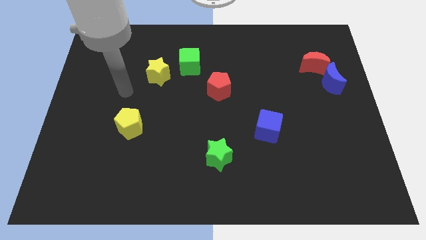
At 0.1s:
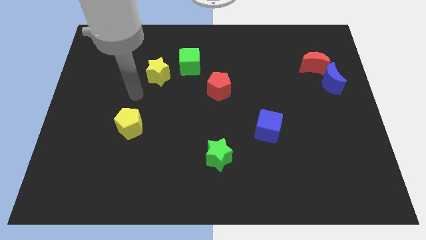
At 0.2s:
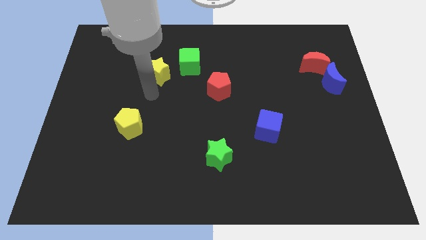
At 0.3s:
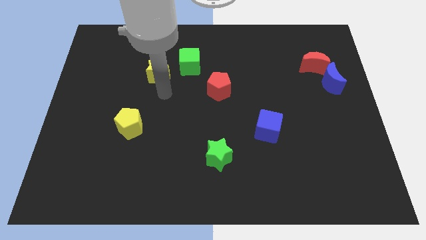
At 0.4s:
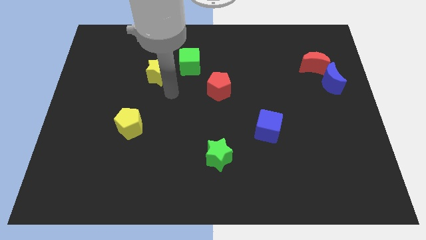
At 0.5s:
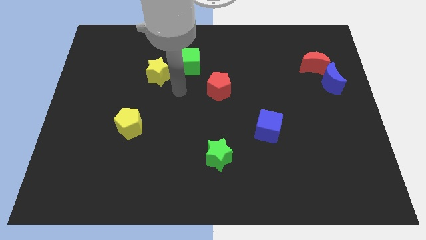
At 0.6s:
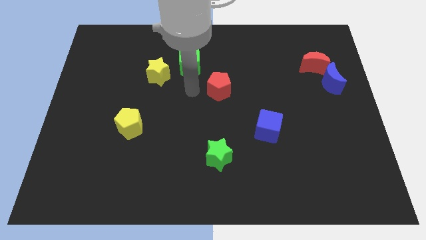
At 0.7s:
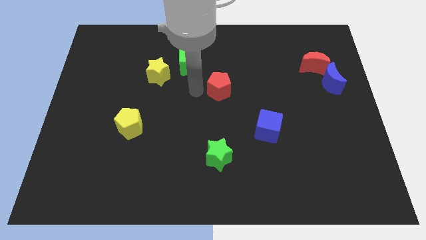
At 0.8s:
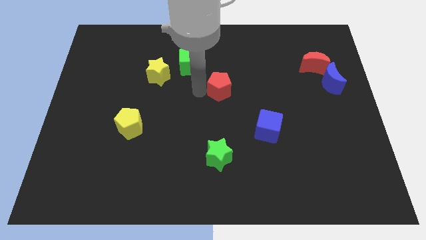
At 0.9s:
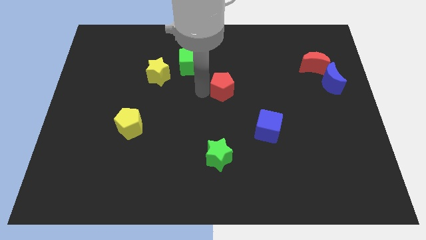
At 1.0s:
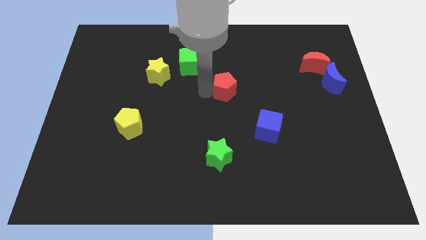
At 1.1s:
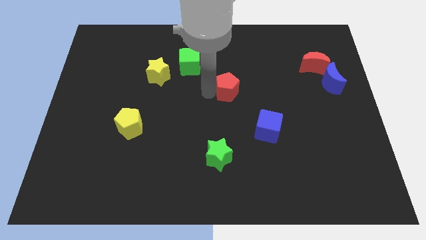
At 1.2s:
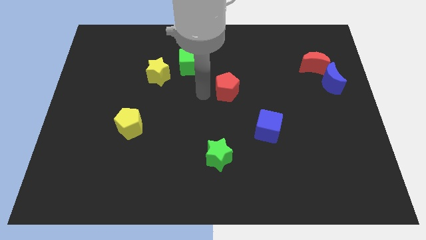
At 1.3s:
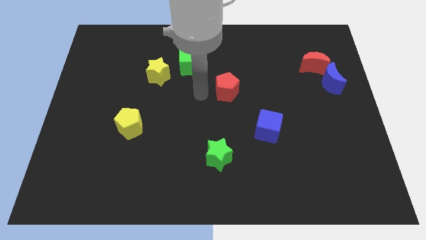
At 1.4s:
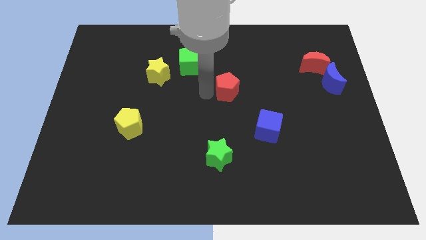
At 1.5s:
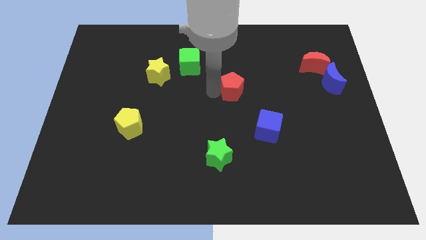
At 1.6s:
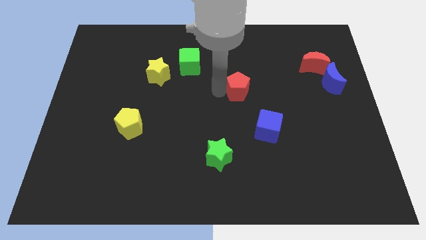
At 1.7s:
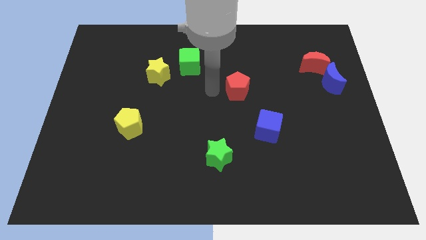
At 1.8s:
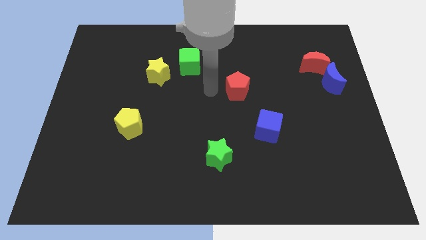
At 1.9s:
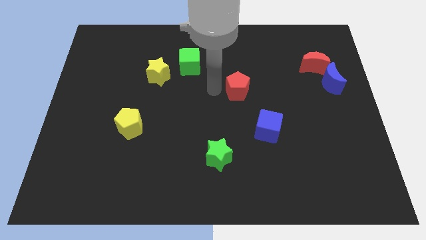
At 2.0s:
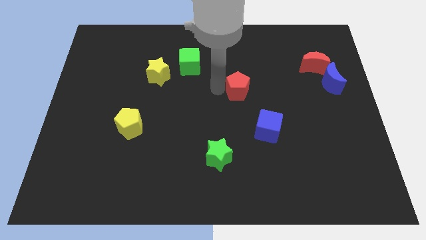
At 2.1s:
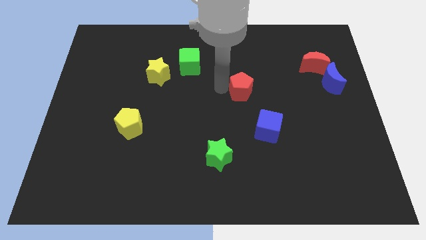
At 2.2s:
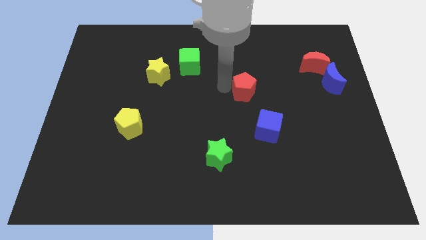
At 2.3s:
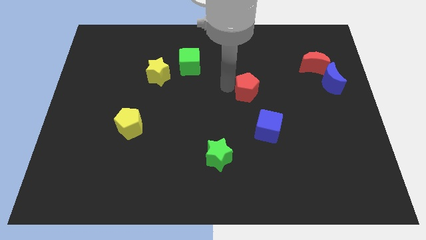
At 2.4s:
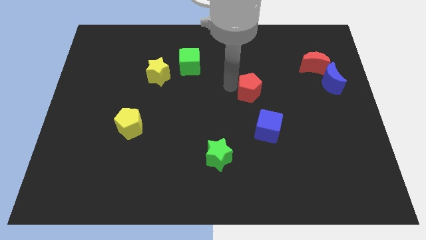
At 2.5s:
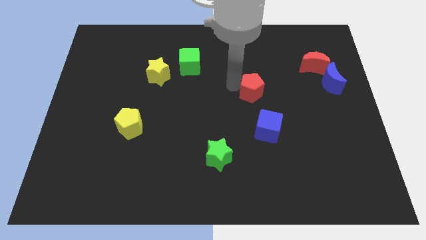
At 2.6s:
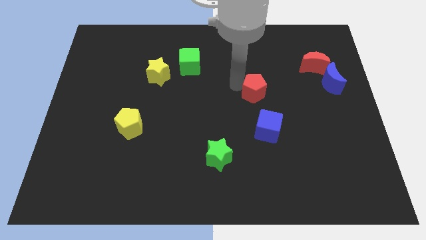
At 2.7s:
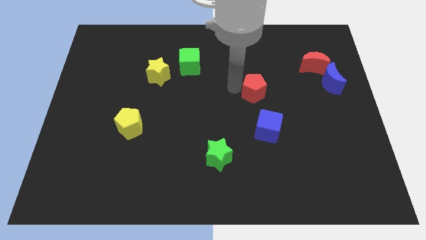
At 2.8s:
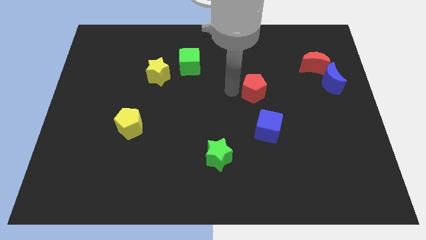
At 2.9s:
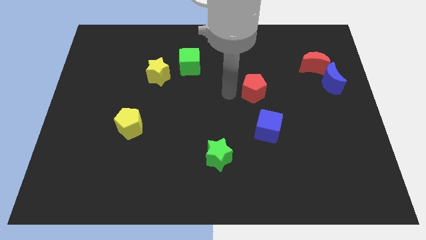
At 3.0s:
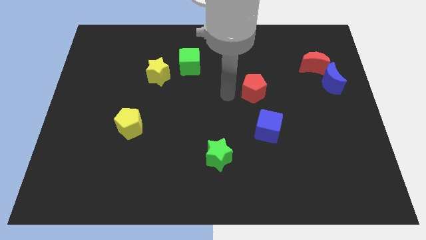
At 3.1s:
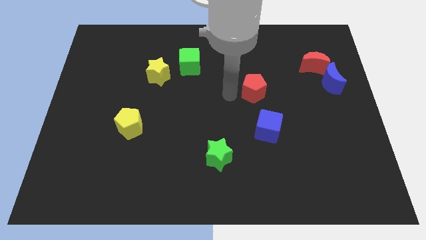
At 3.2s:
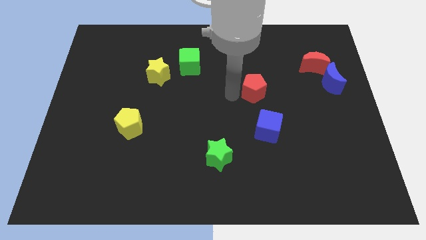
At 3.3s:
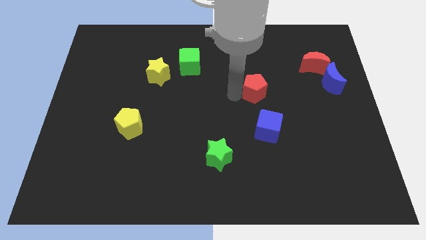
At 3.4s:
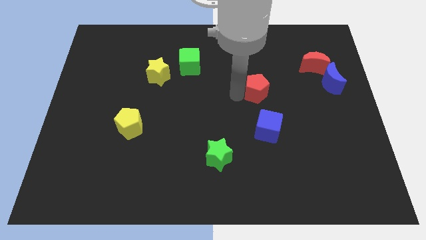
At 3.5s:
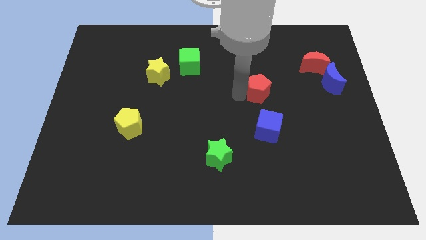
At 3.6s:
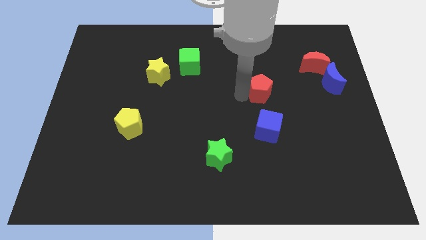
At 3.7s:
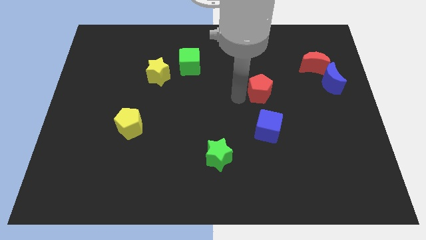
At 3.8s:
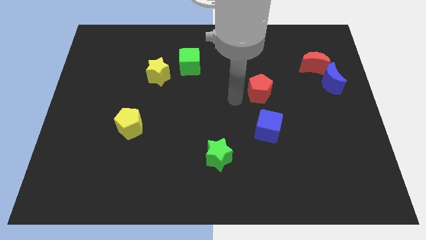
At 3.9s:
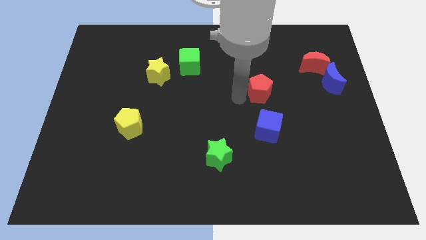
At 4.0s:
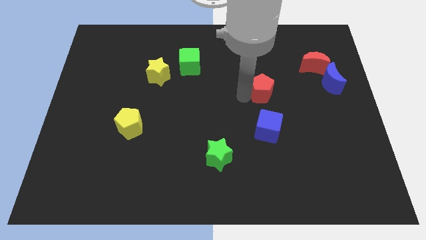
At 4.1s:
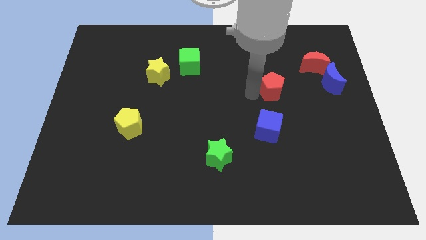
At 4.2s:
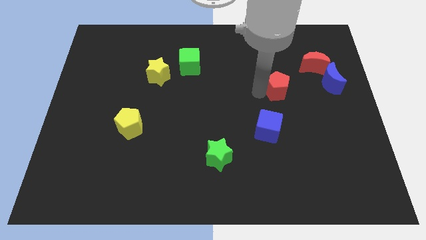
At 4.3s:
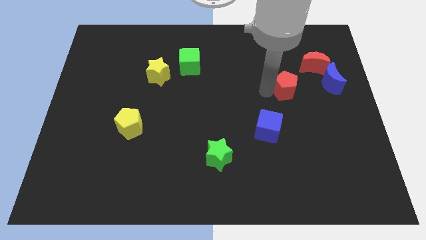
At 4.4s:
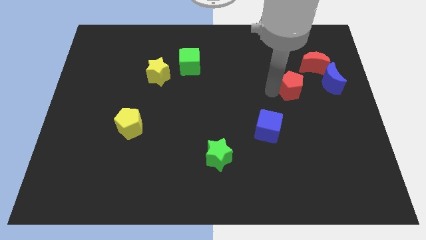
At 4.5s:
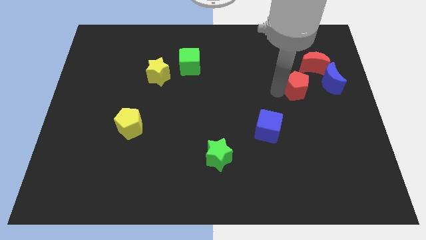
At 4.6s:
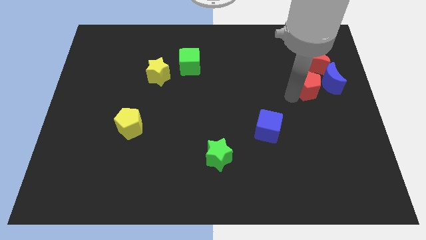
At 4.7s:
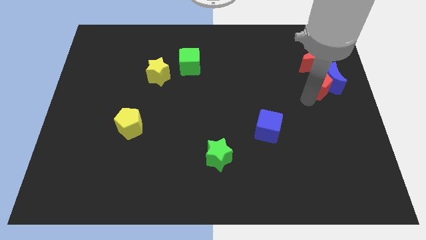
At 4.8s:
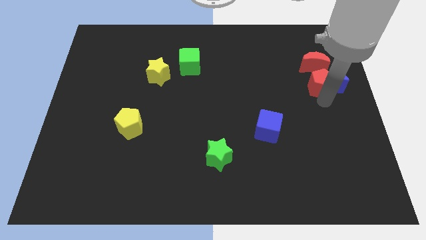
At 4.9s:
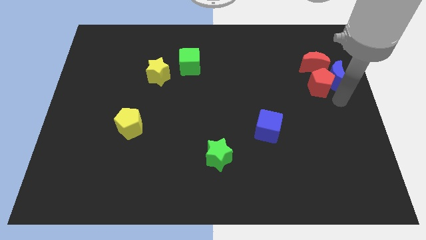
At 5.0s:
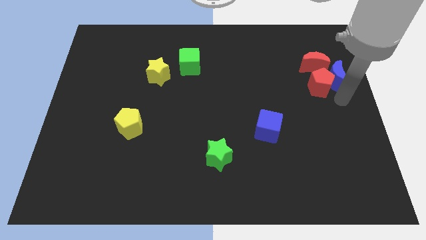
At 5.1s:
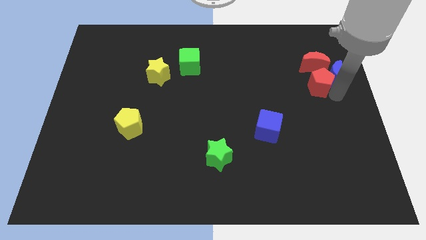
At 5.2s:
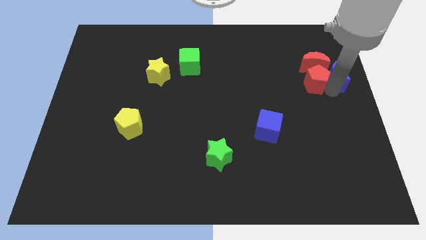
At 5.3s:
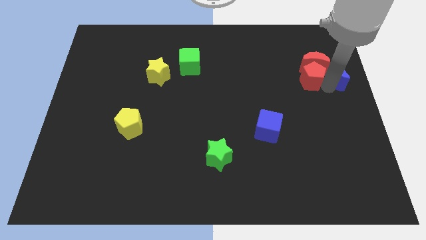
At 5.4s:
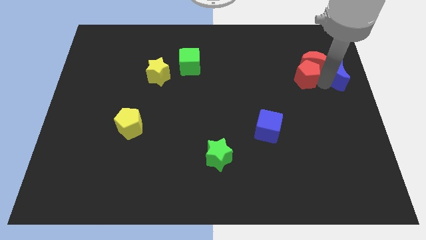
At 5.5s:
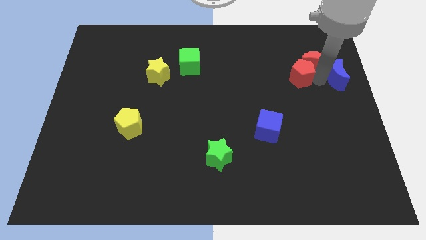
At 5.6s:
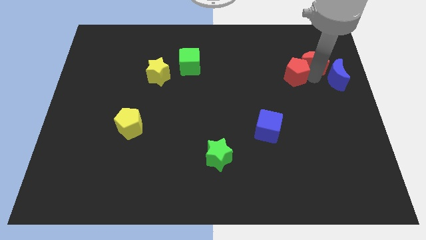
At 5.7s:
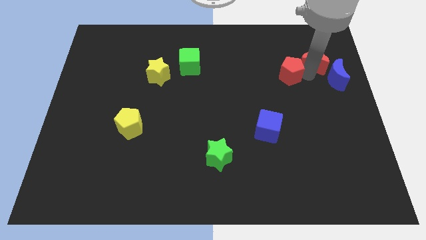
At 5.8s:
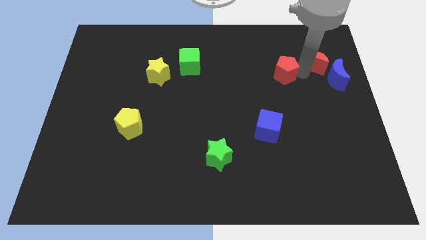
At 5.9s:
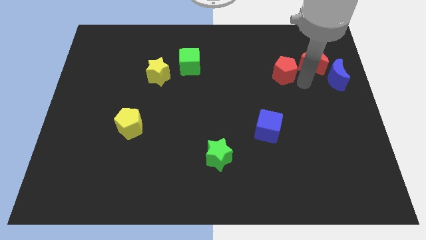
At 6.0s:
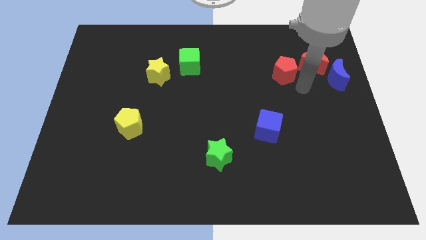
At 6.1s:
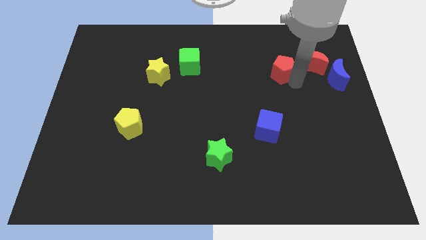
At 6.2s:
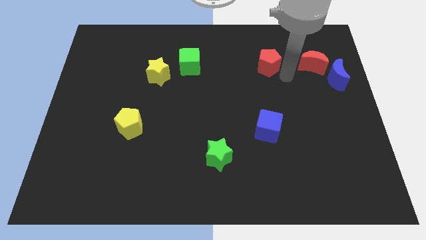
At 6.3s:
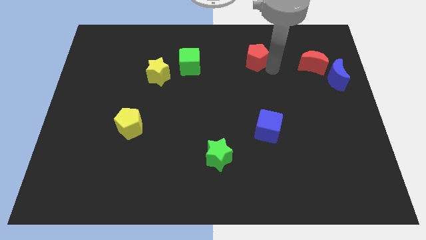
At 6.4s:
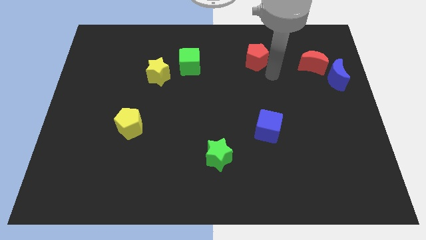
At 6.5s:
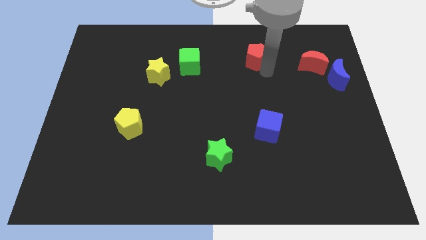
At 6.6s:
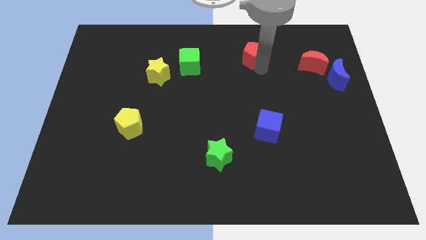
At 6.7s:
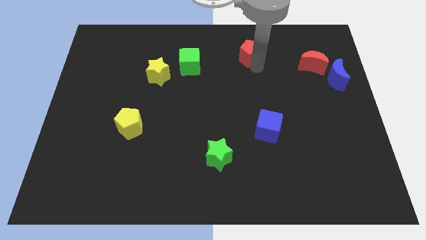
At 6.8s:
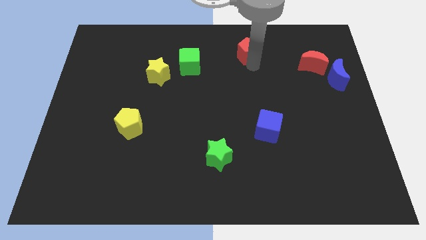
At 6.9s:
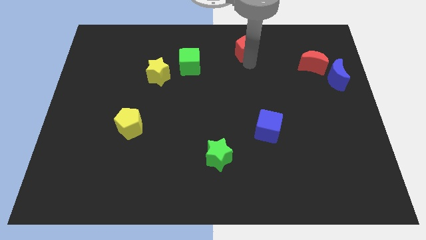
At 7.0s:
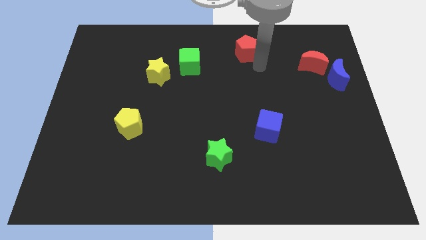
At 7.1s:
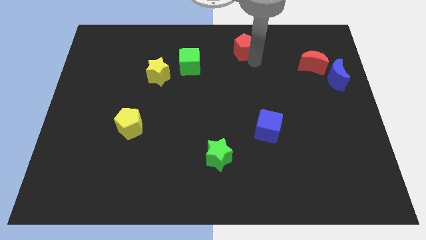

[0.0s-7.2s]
slide the red pentagon to the top
